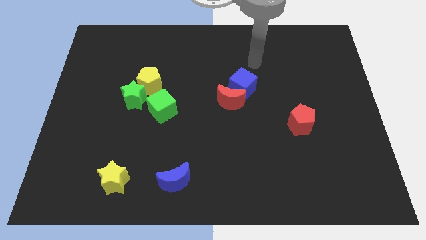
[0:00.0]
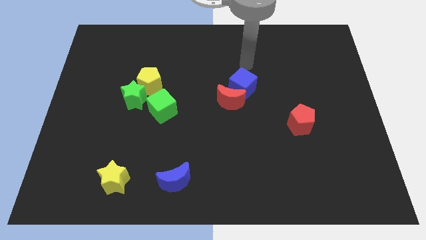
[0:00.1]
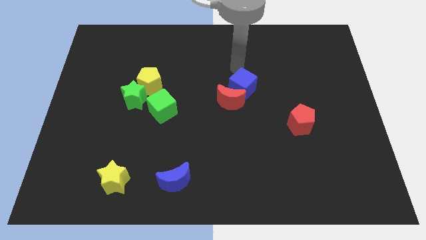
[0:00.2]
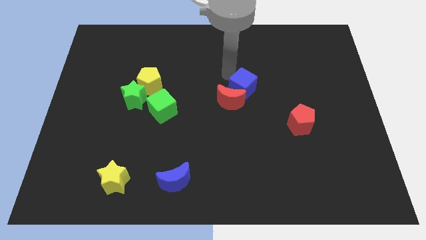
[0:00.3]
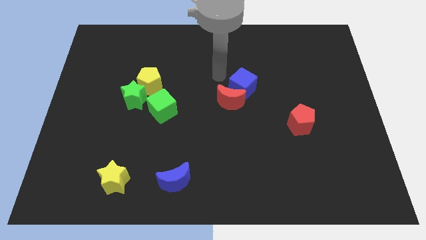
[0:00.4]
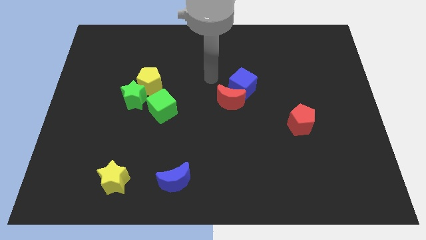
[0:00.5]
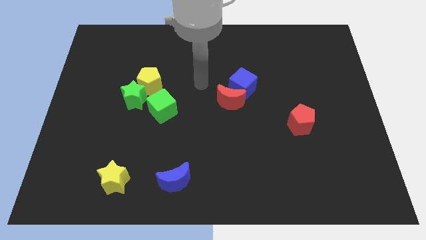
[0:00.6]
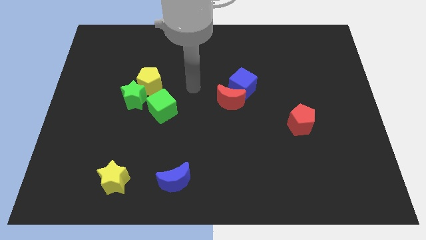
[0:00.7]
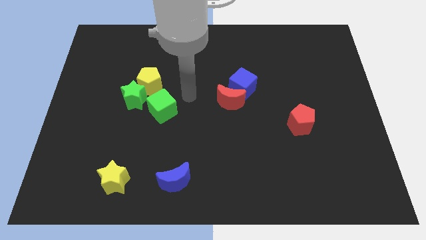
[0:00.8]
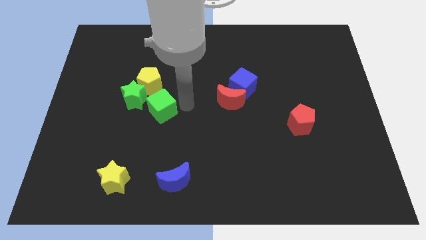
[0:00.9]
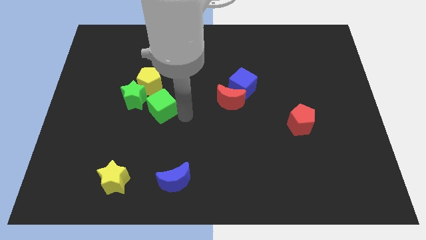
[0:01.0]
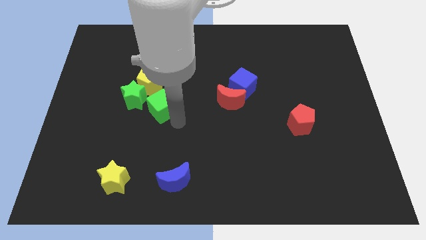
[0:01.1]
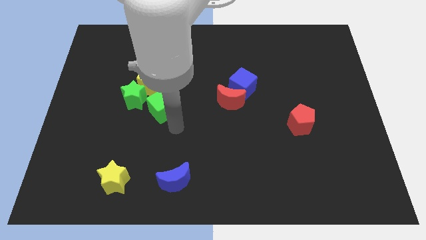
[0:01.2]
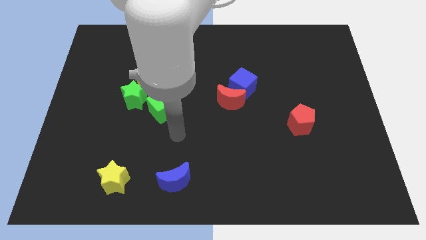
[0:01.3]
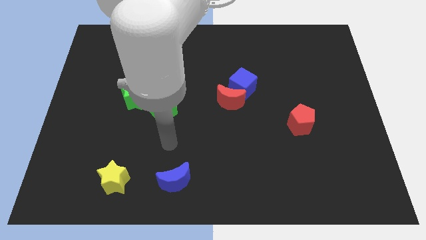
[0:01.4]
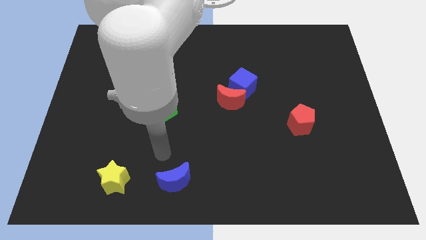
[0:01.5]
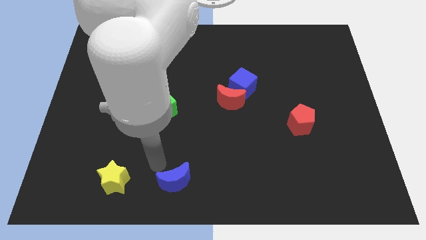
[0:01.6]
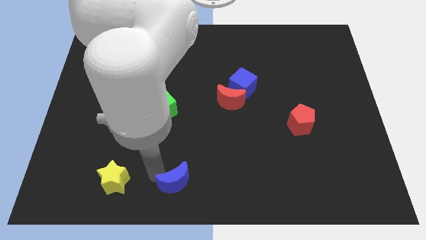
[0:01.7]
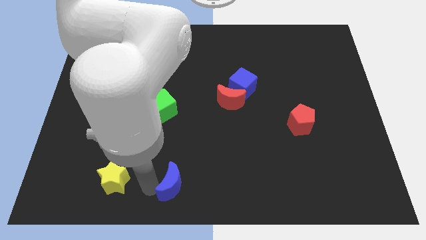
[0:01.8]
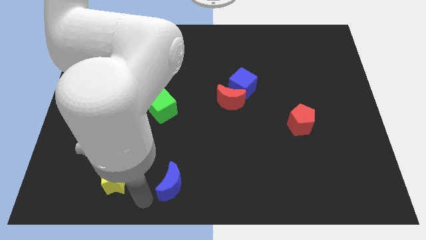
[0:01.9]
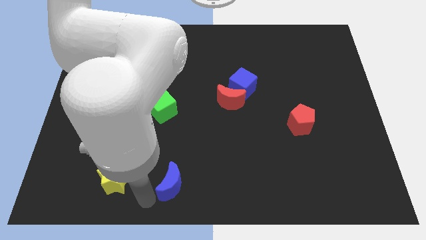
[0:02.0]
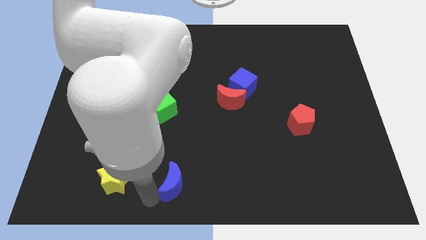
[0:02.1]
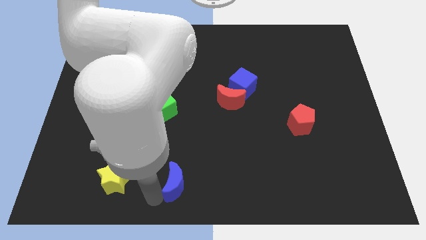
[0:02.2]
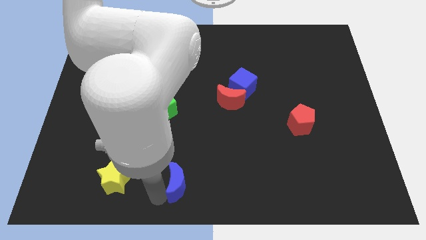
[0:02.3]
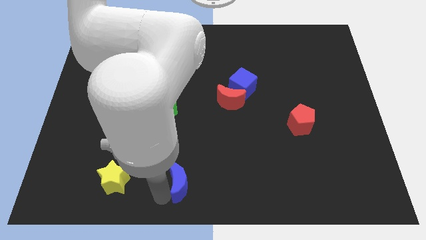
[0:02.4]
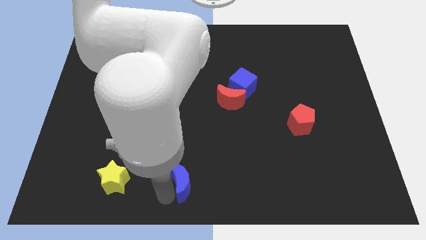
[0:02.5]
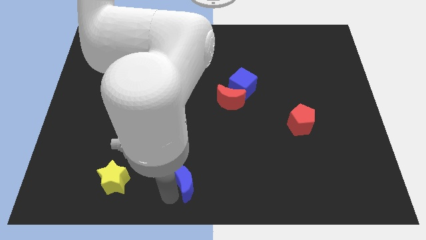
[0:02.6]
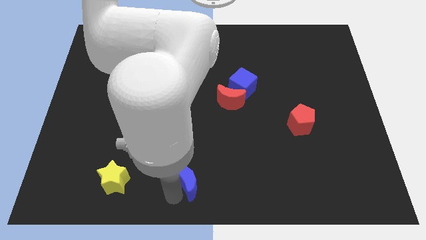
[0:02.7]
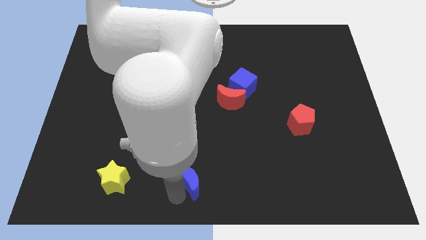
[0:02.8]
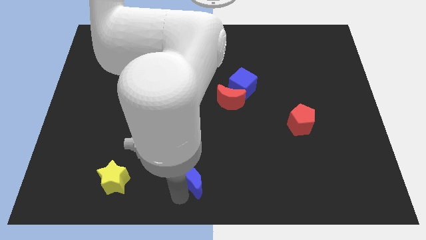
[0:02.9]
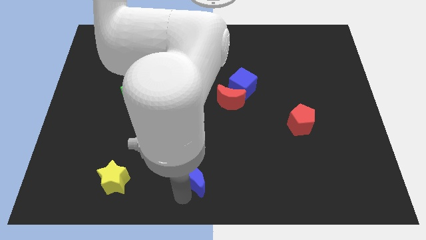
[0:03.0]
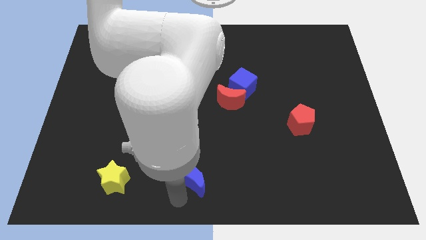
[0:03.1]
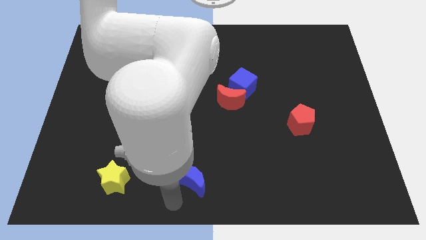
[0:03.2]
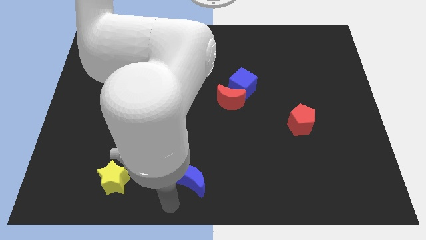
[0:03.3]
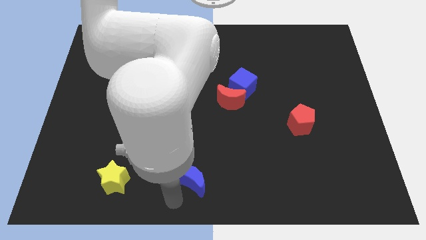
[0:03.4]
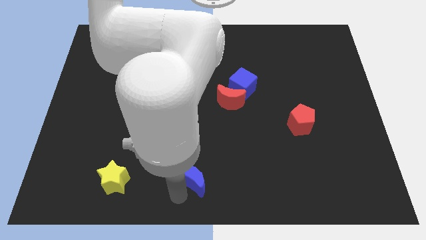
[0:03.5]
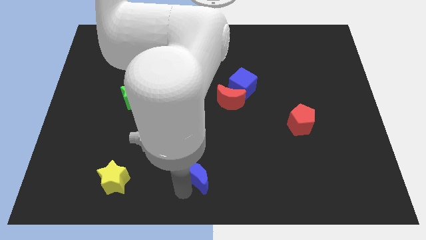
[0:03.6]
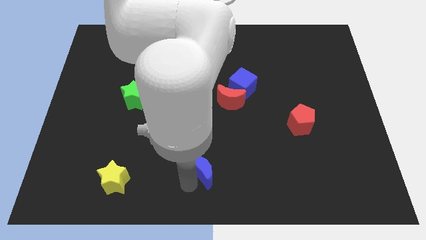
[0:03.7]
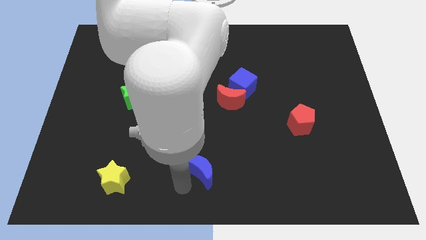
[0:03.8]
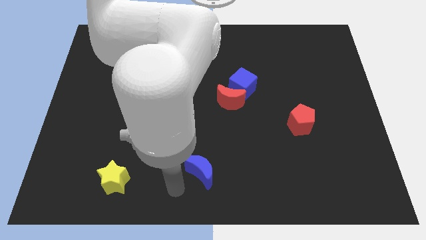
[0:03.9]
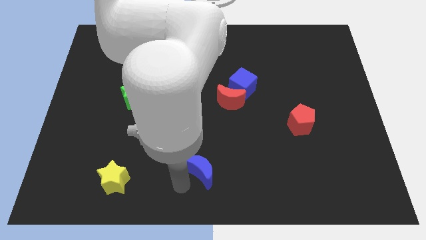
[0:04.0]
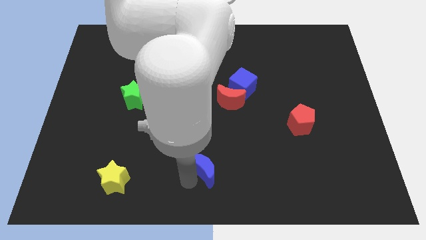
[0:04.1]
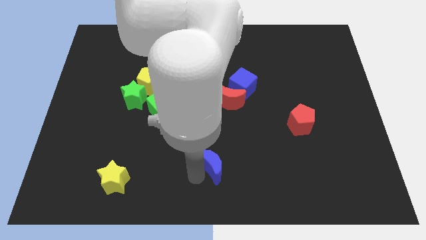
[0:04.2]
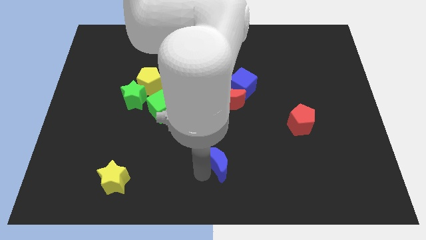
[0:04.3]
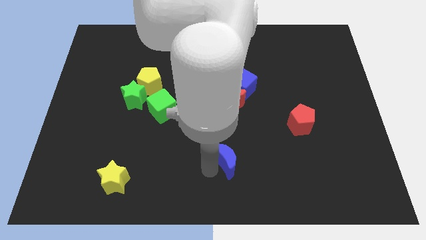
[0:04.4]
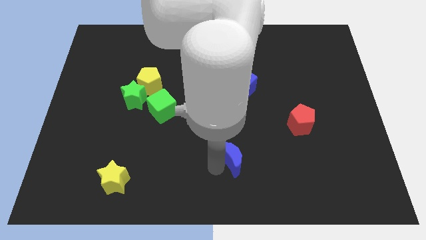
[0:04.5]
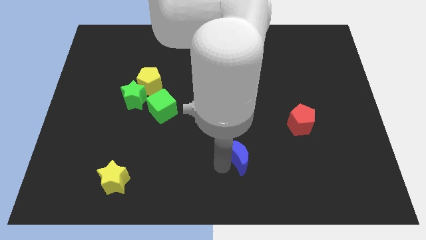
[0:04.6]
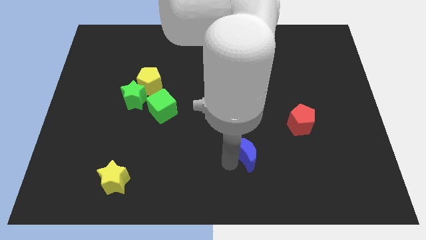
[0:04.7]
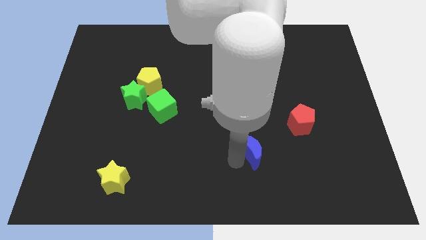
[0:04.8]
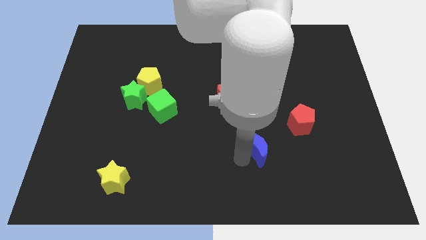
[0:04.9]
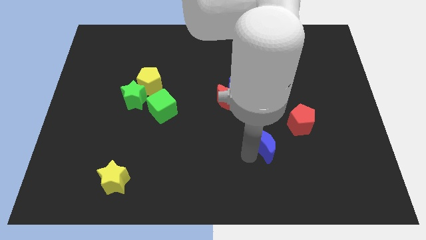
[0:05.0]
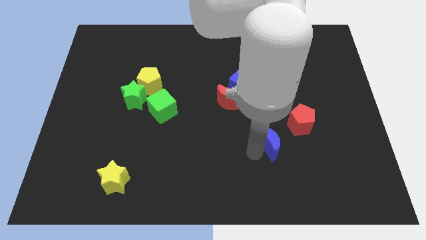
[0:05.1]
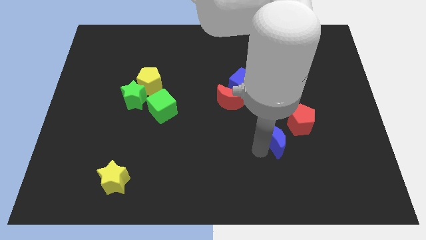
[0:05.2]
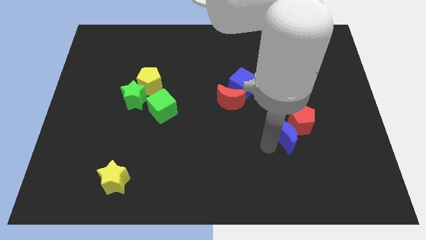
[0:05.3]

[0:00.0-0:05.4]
slide the blue moon close to the red pentagon

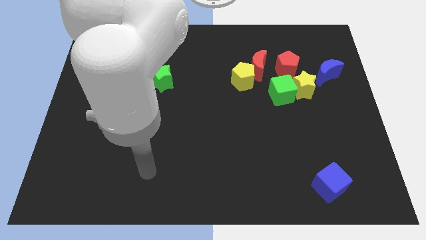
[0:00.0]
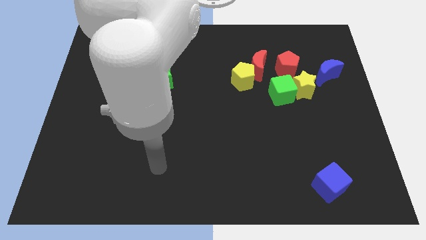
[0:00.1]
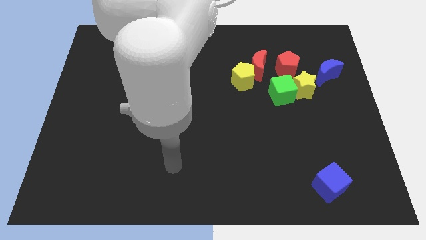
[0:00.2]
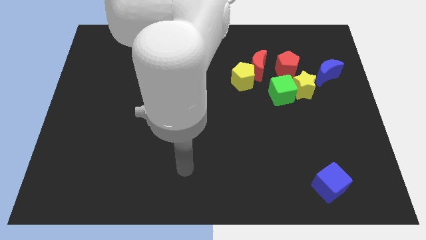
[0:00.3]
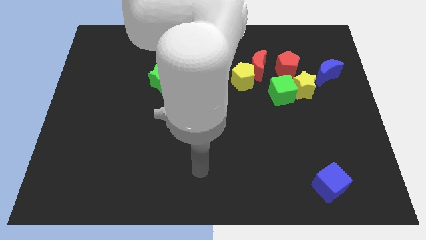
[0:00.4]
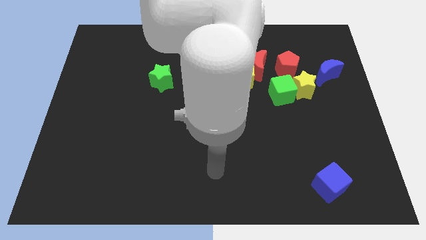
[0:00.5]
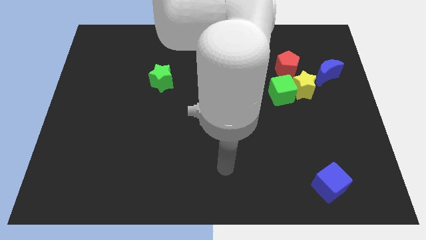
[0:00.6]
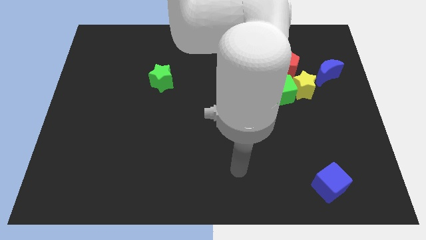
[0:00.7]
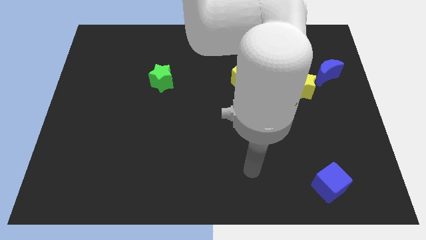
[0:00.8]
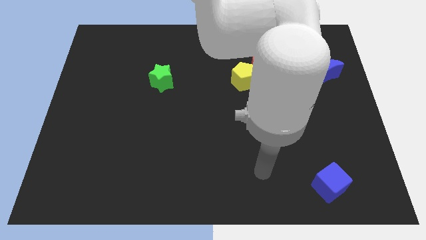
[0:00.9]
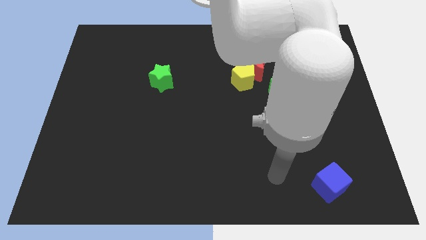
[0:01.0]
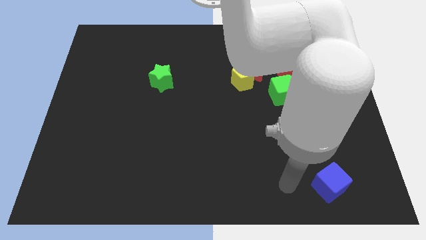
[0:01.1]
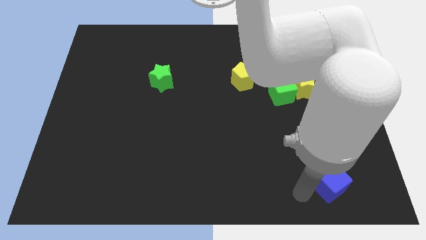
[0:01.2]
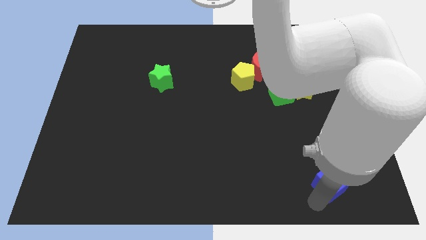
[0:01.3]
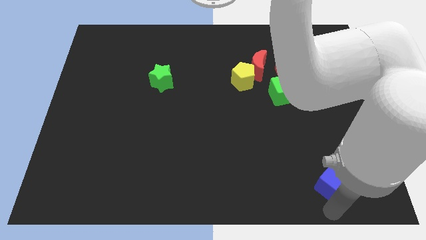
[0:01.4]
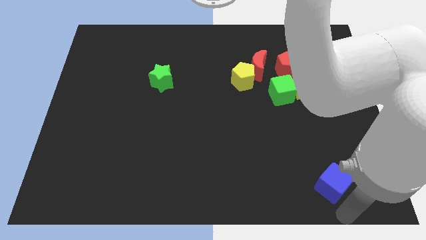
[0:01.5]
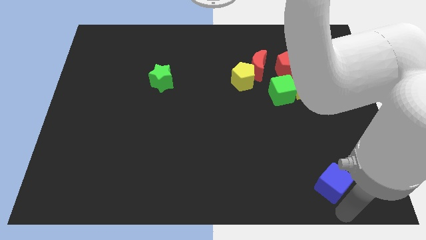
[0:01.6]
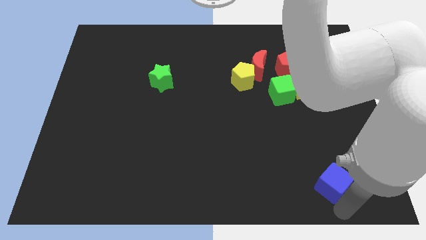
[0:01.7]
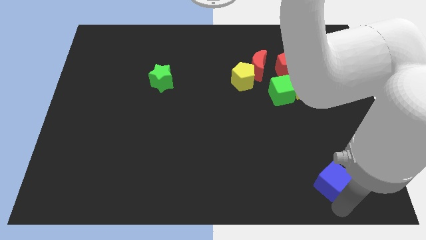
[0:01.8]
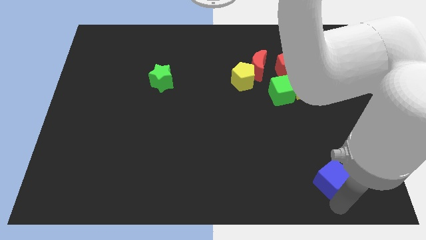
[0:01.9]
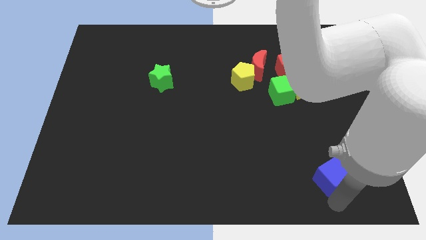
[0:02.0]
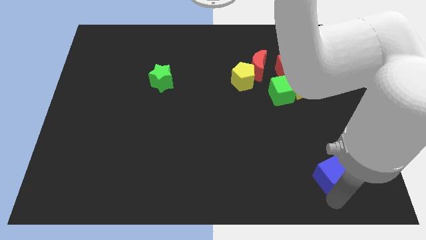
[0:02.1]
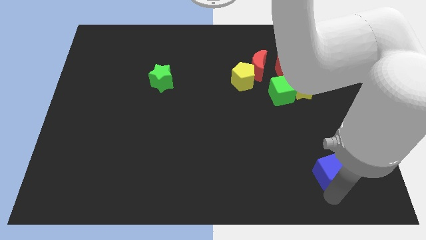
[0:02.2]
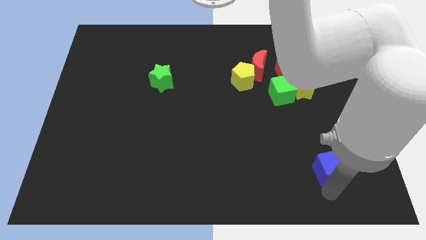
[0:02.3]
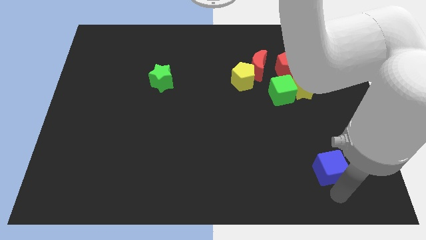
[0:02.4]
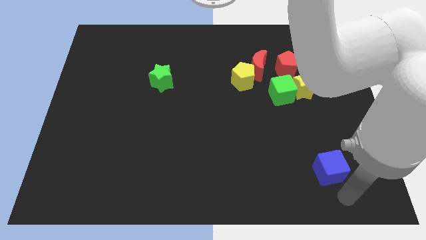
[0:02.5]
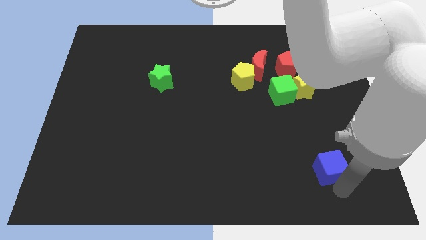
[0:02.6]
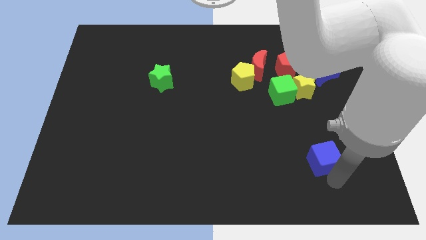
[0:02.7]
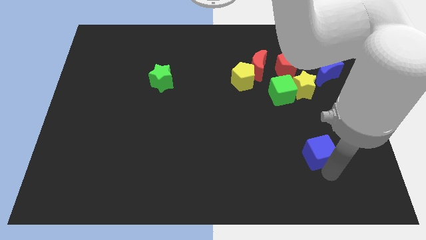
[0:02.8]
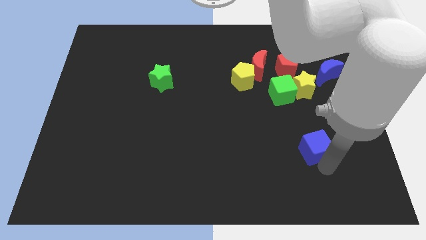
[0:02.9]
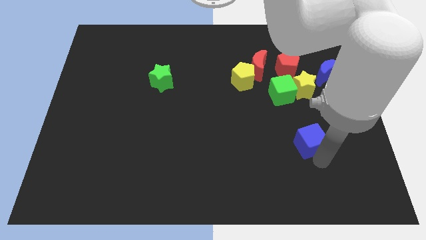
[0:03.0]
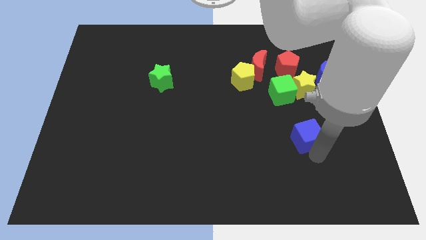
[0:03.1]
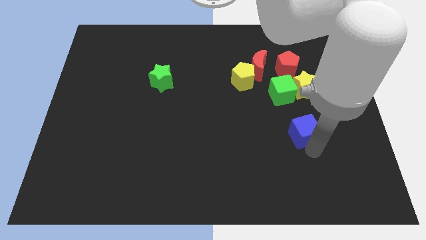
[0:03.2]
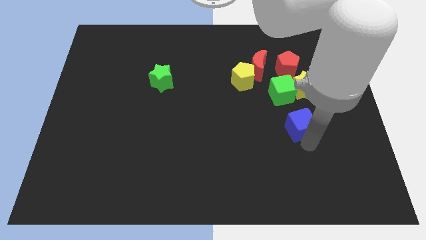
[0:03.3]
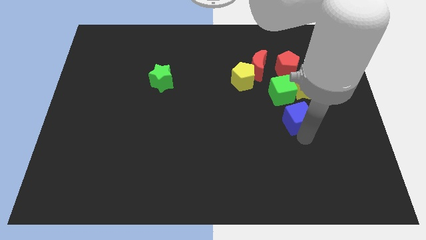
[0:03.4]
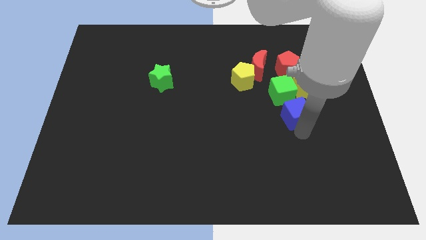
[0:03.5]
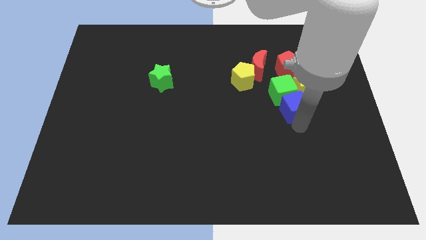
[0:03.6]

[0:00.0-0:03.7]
push the blue cube towards the green cube
